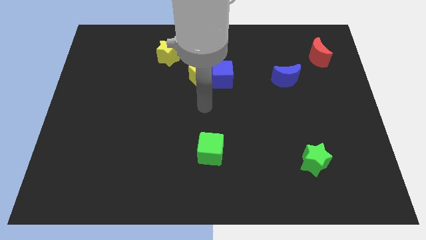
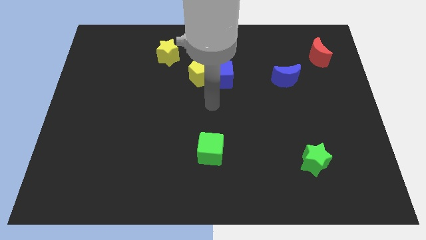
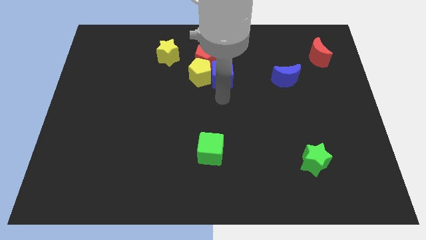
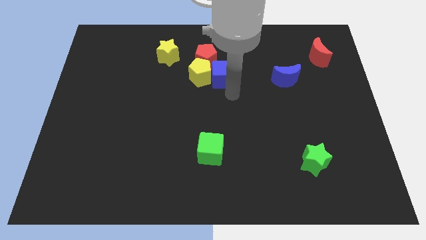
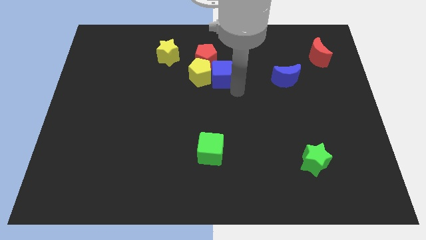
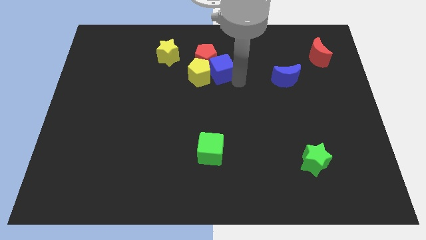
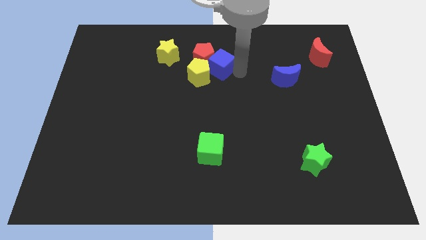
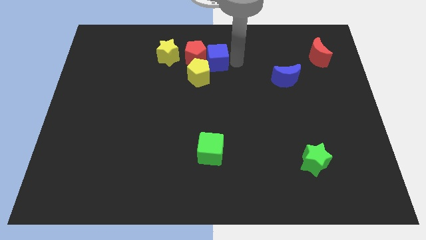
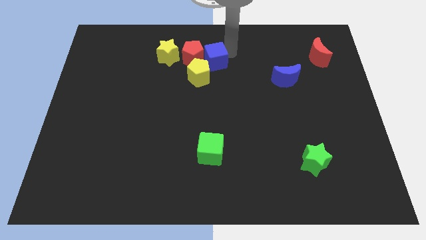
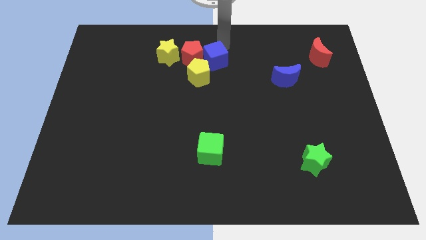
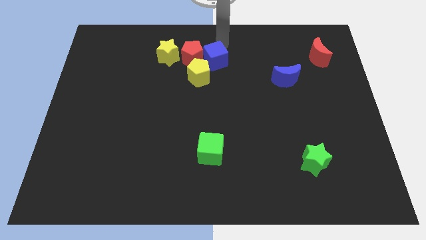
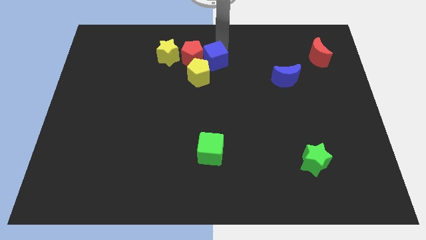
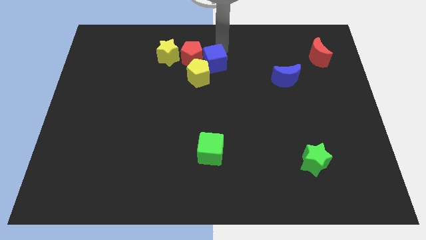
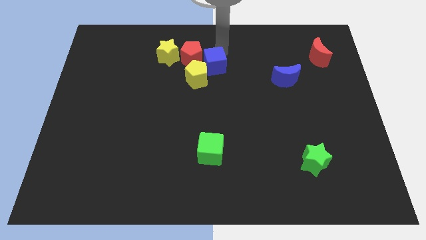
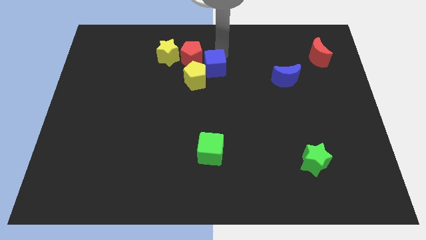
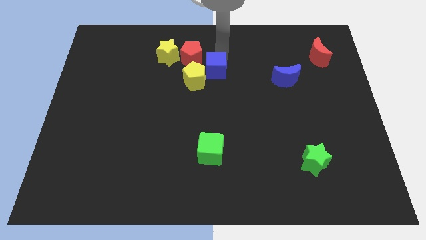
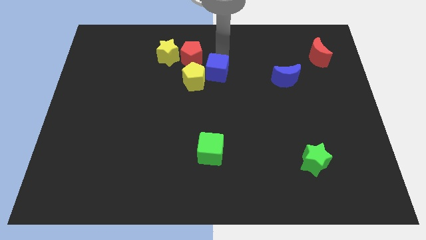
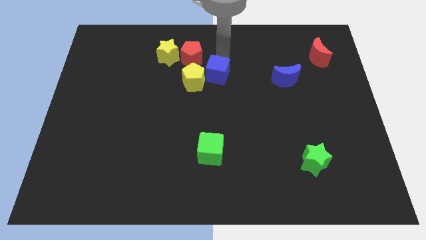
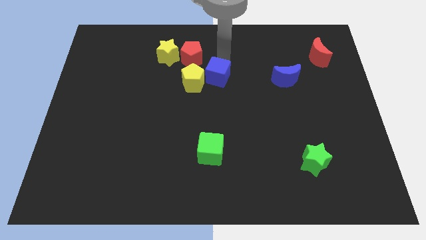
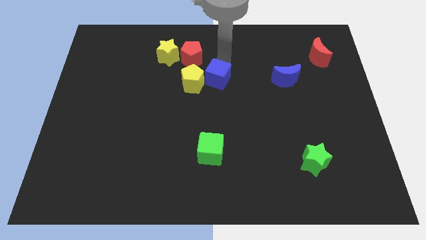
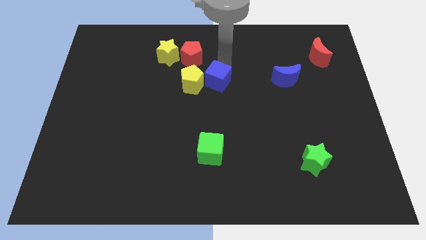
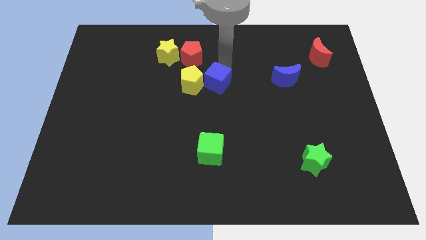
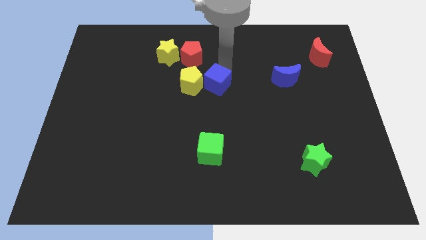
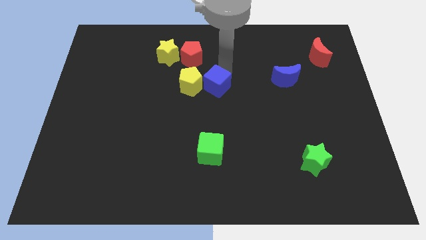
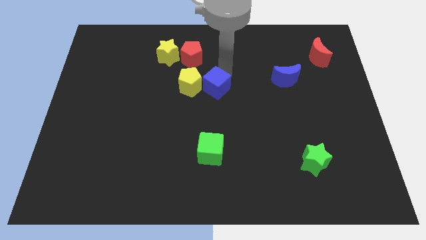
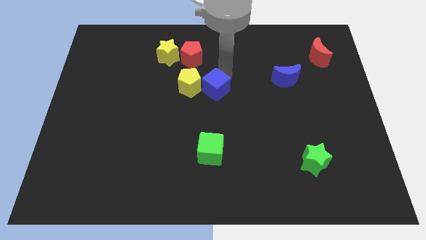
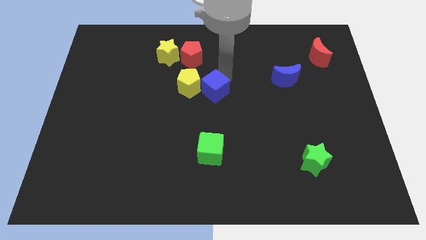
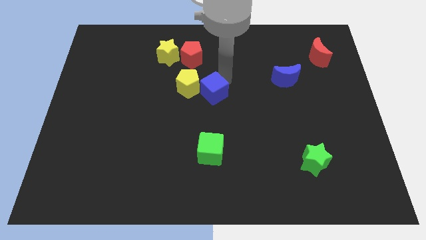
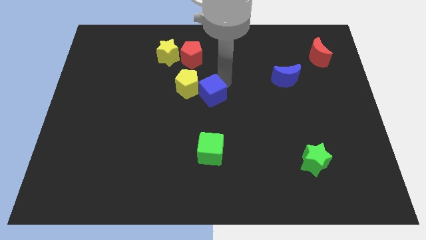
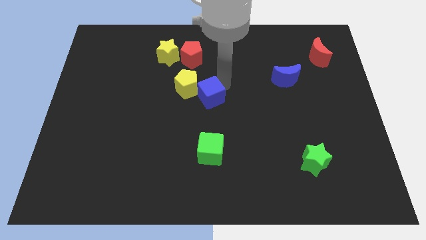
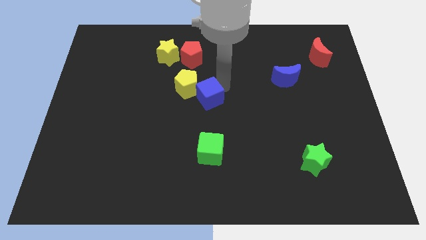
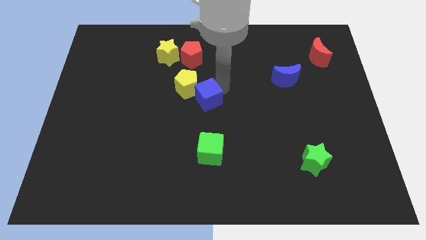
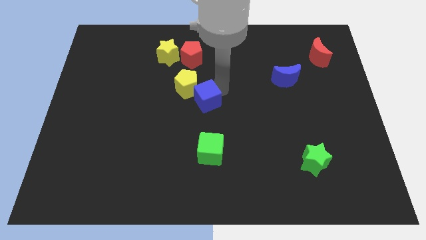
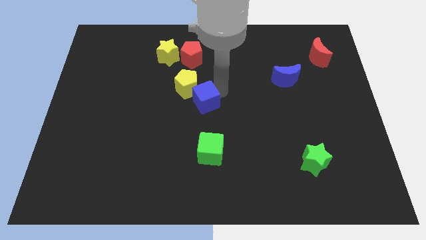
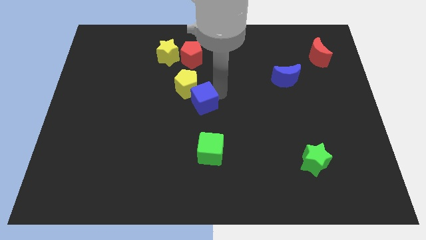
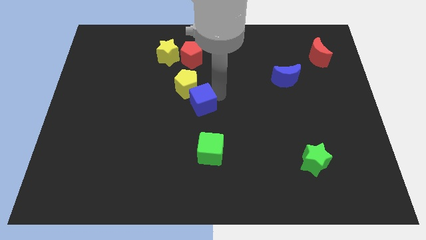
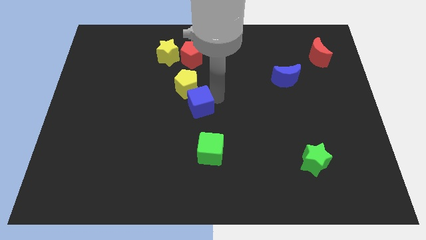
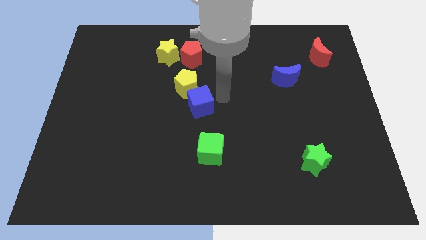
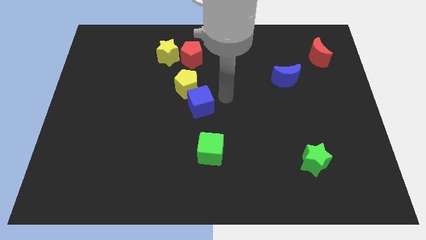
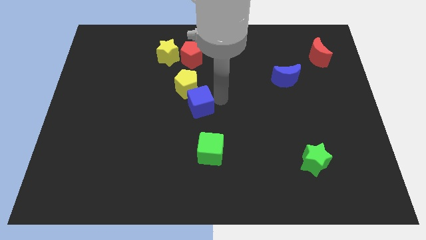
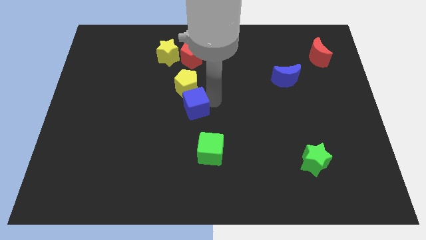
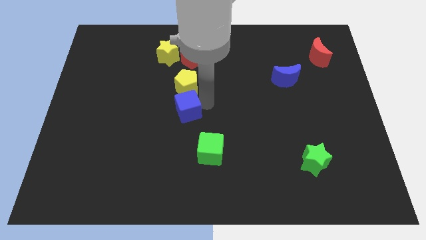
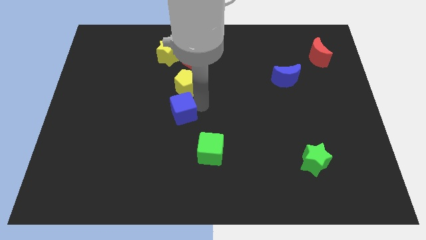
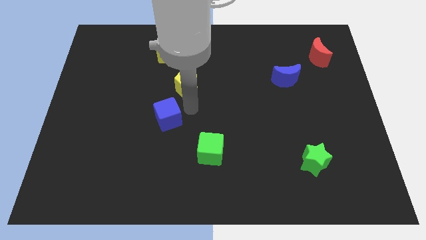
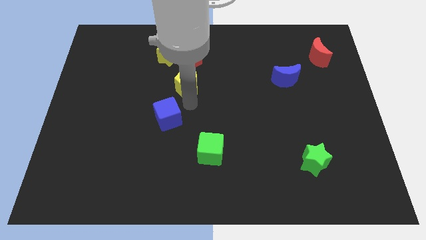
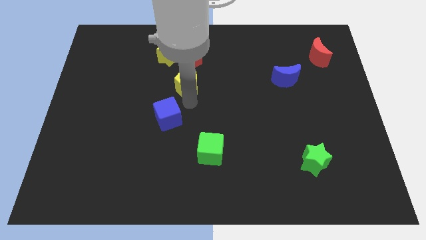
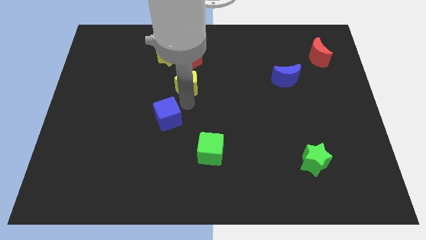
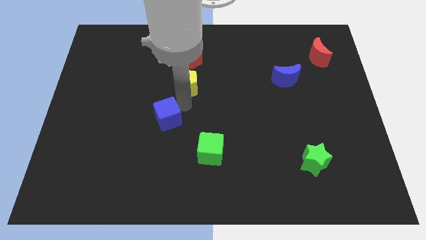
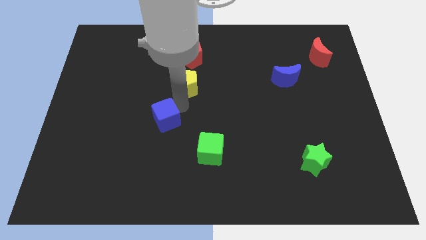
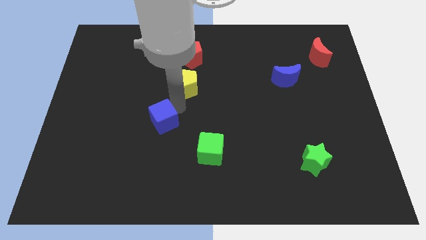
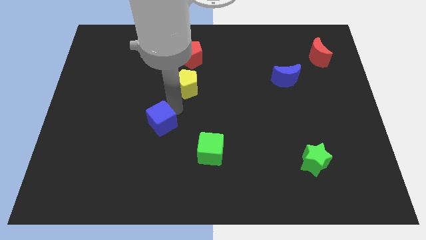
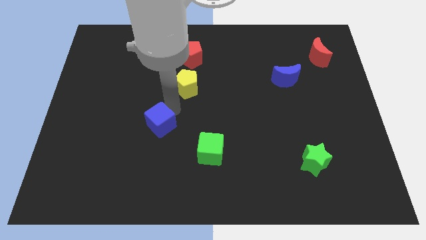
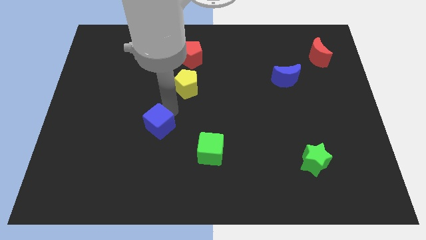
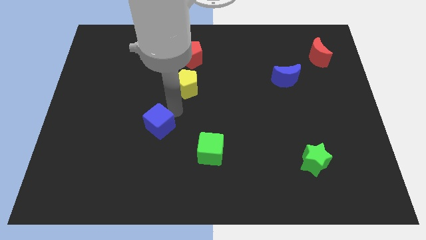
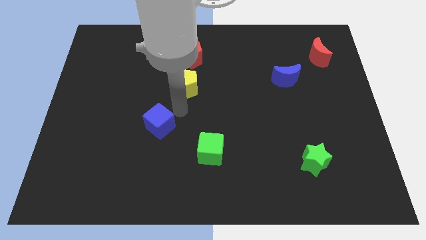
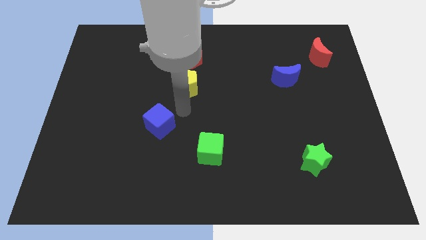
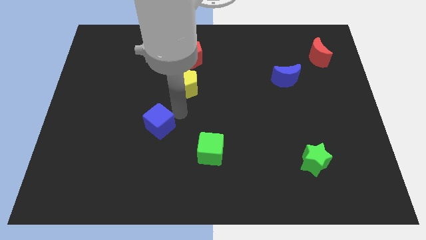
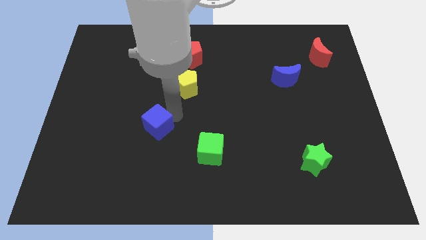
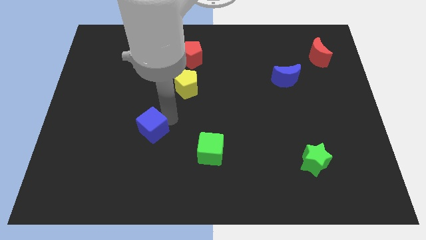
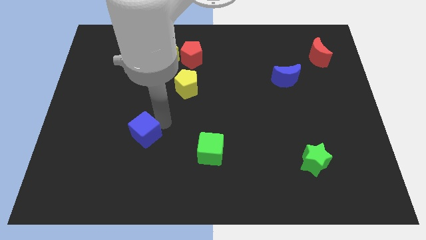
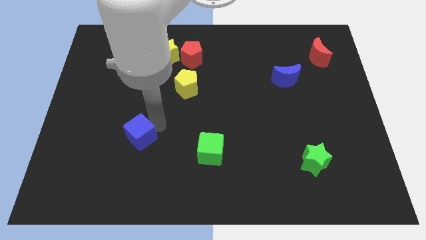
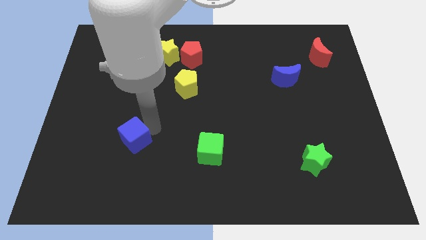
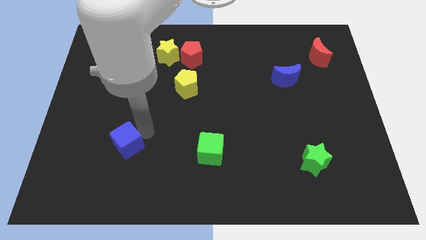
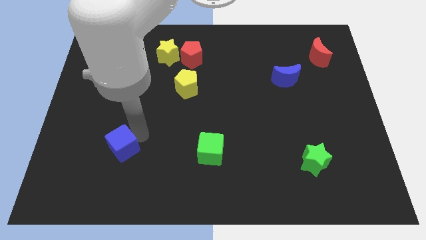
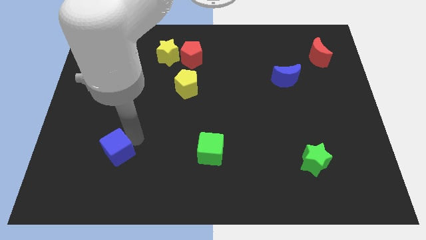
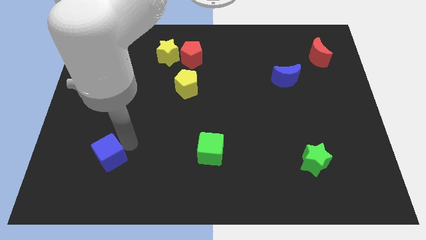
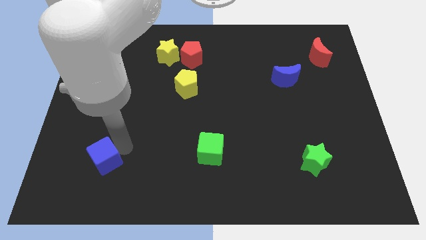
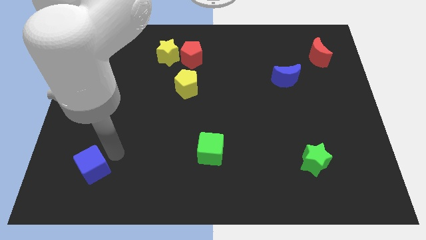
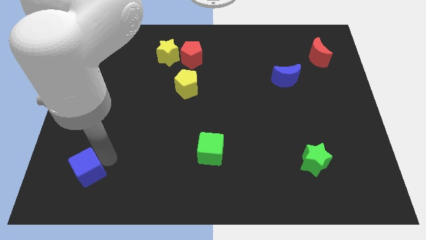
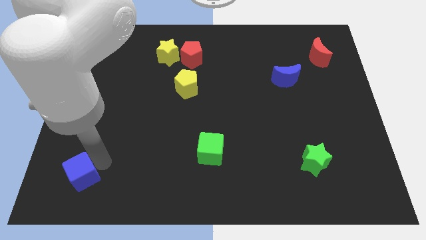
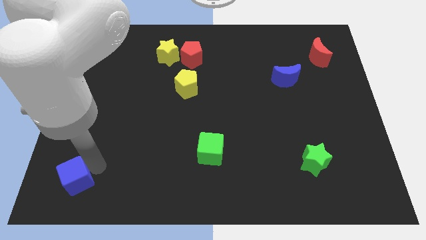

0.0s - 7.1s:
push the blue cube to the lower left corner

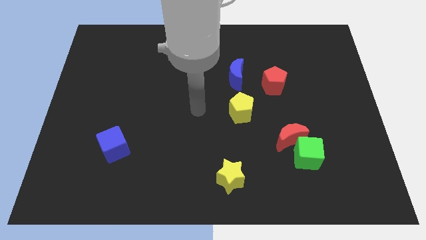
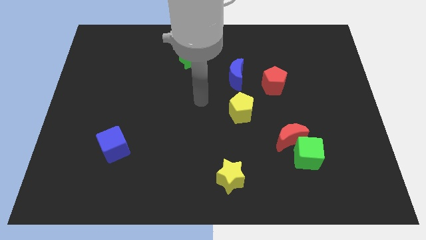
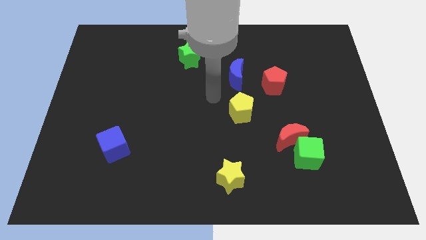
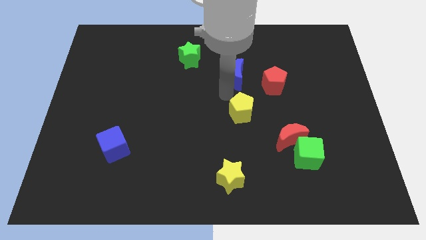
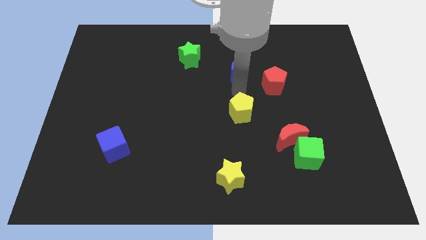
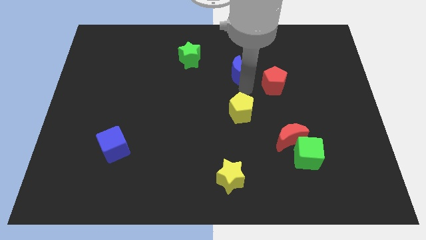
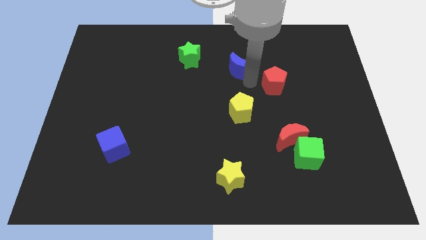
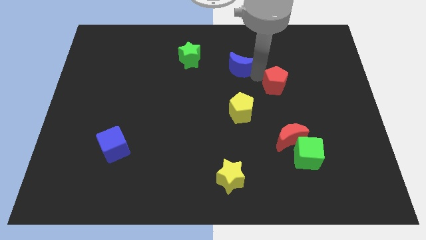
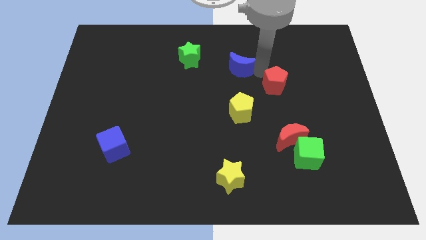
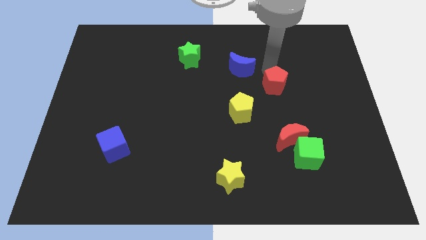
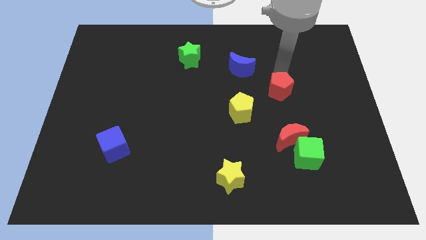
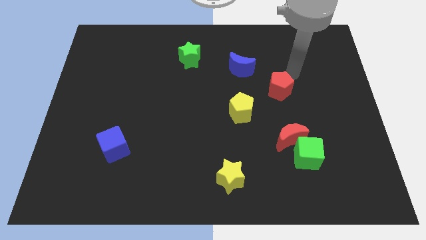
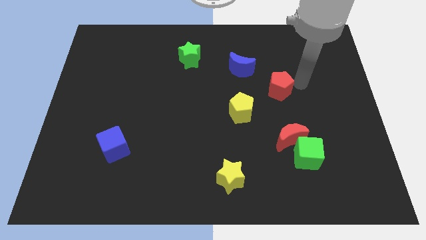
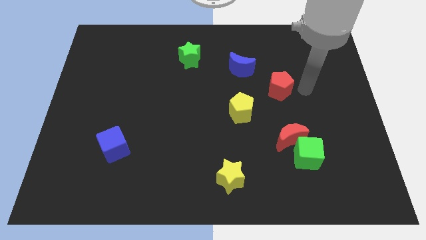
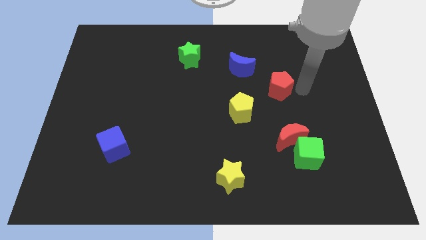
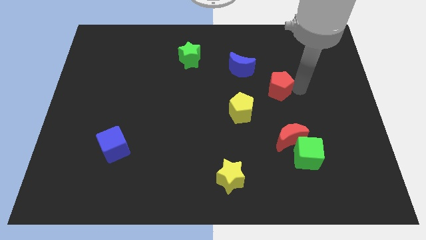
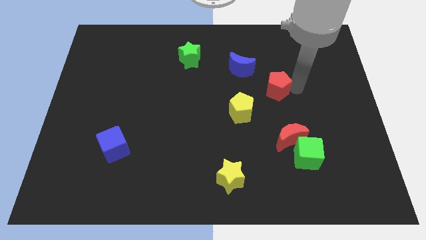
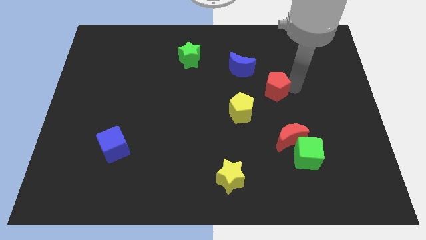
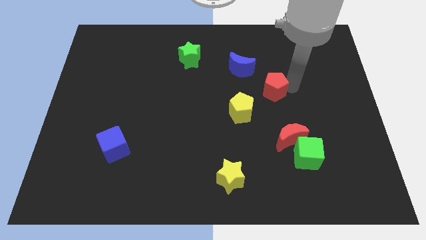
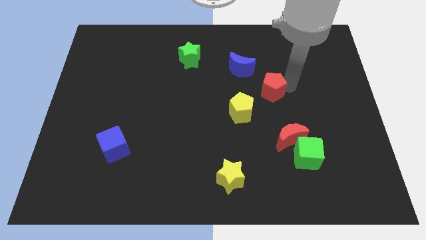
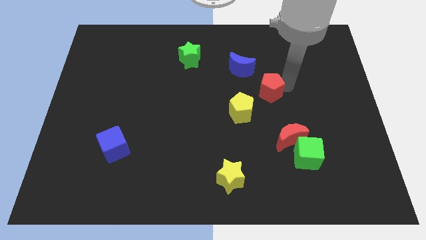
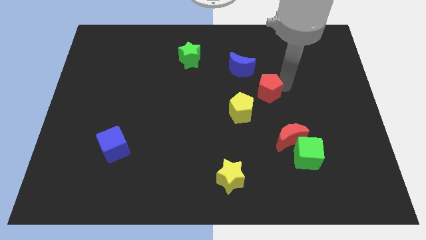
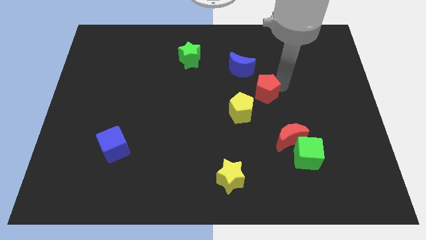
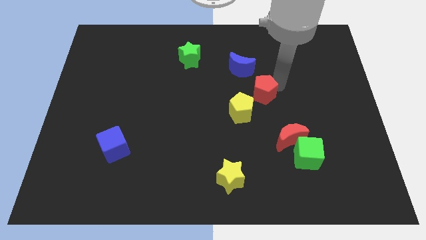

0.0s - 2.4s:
move the red pentagon to the center
